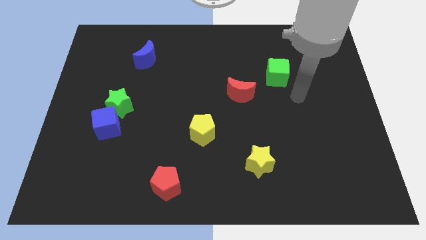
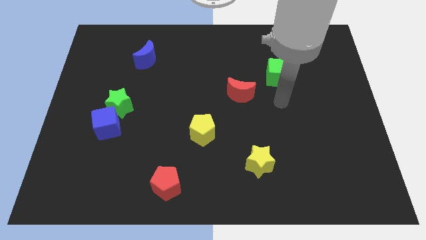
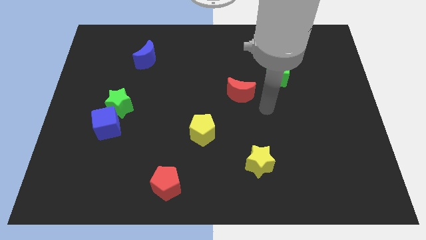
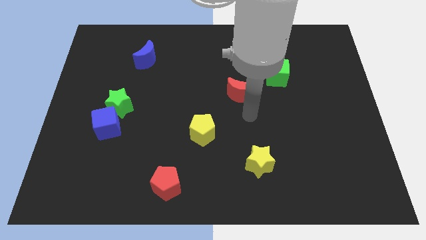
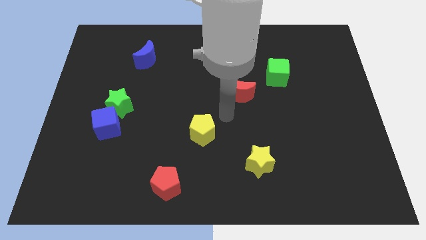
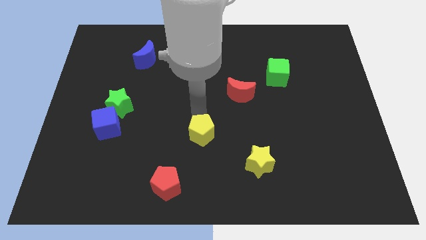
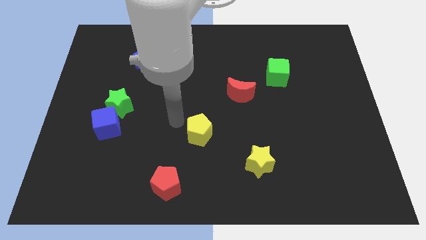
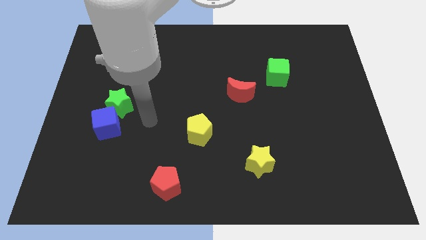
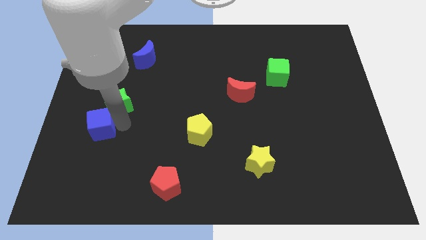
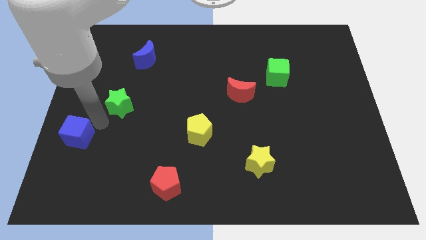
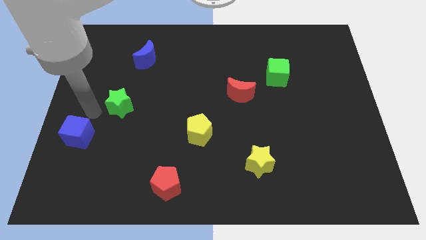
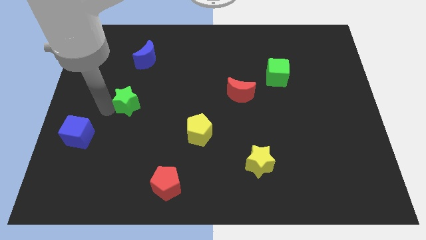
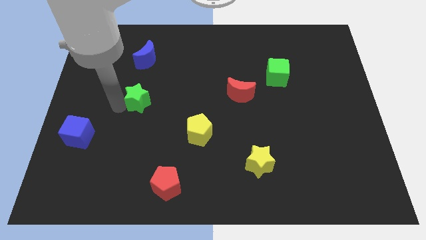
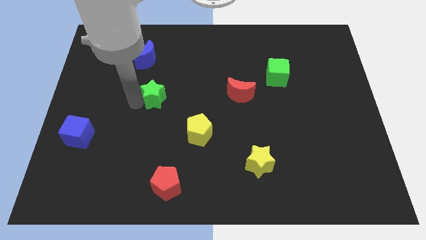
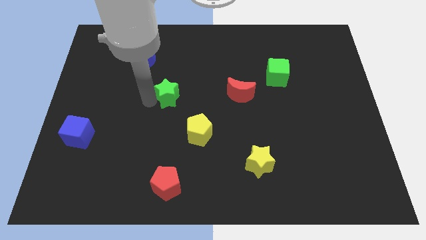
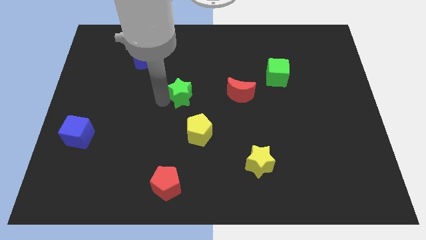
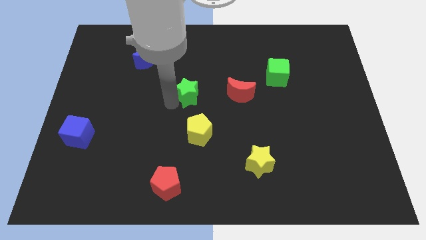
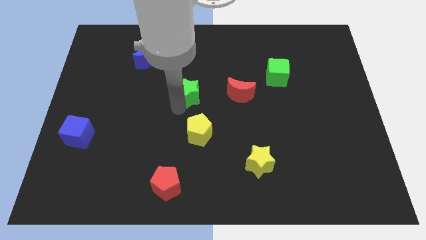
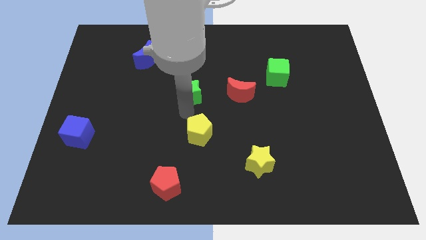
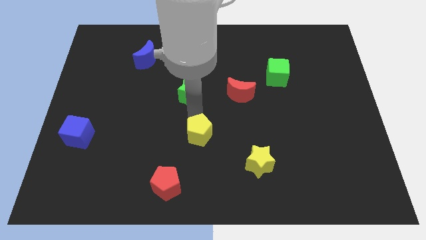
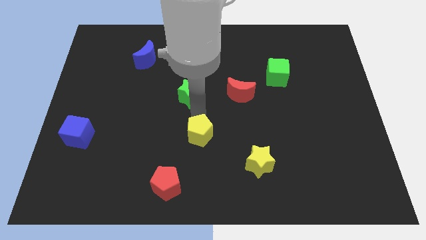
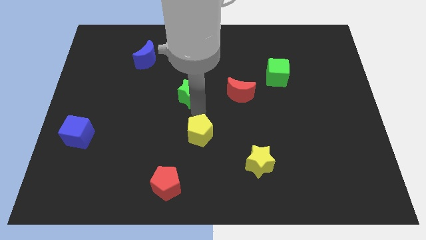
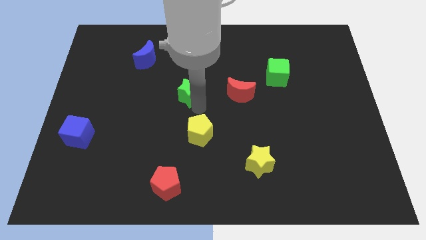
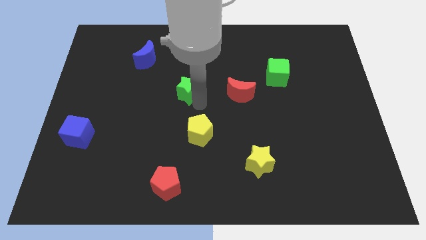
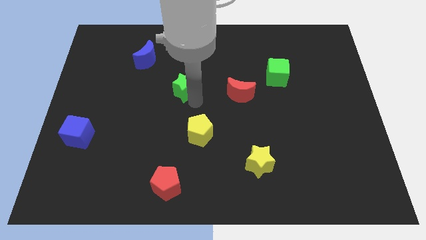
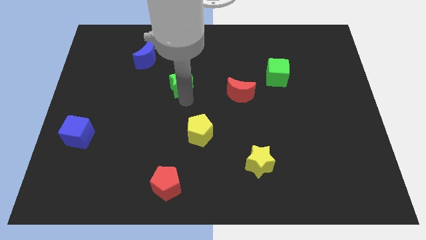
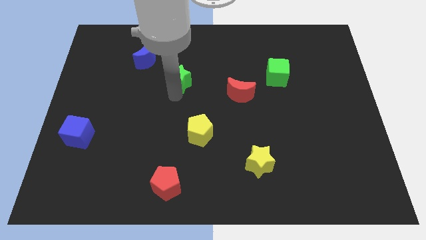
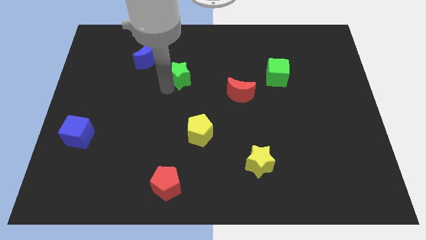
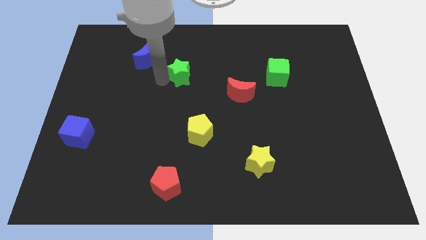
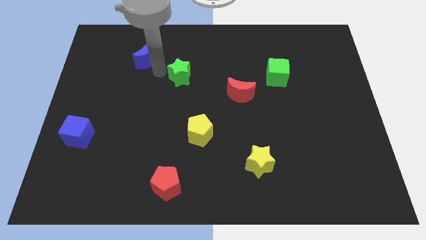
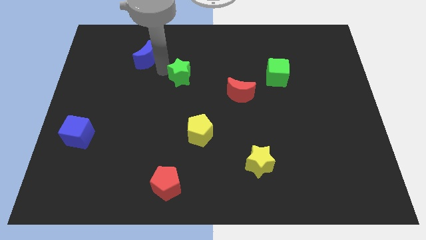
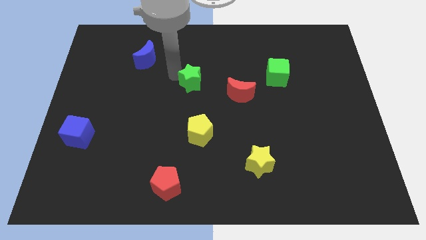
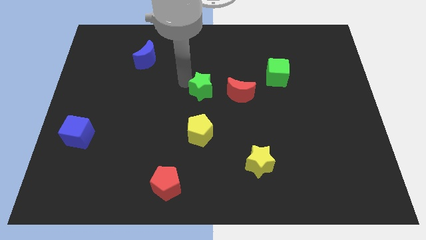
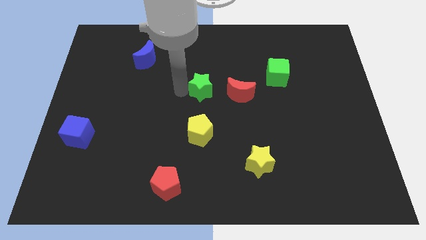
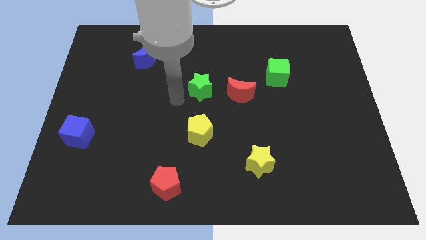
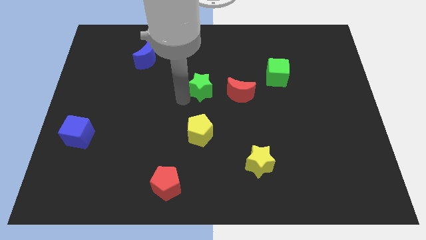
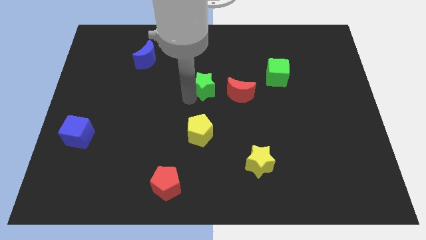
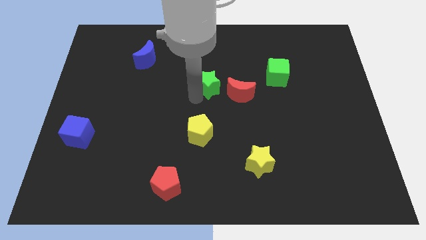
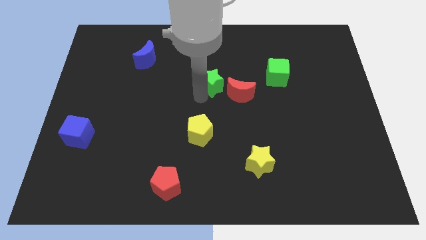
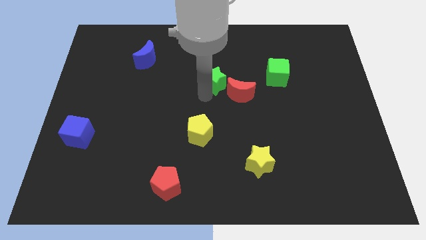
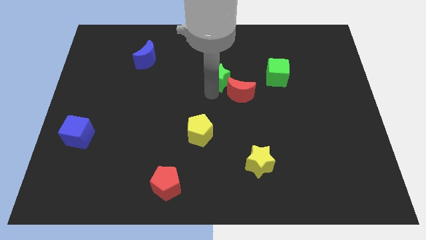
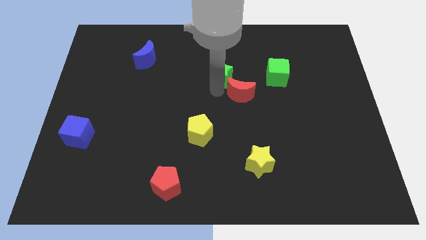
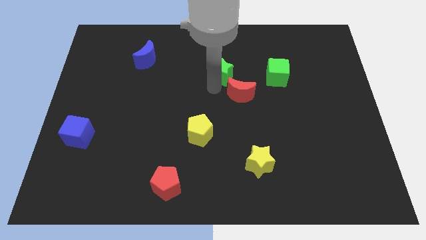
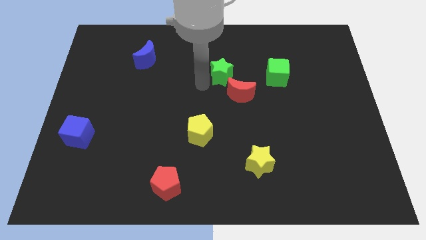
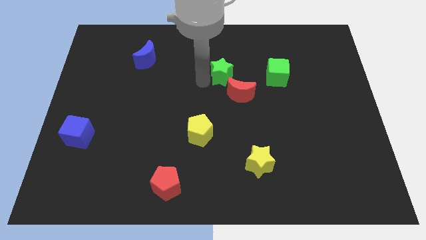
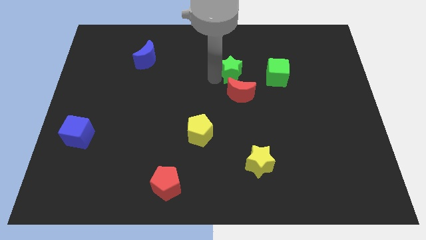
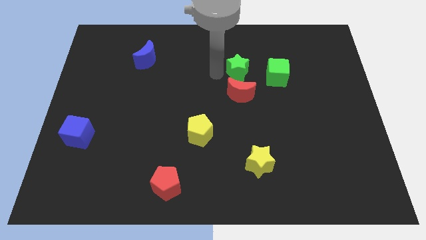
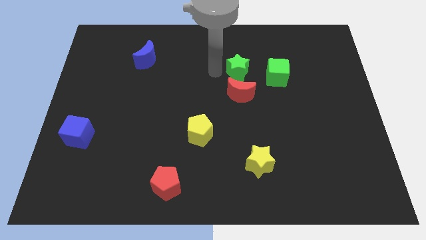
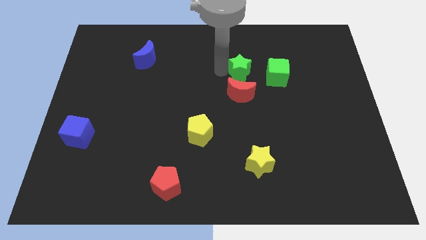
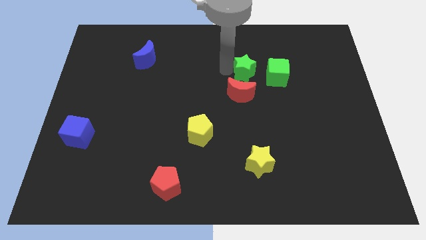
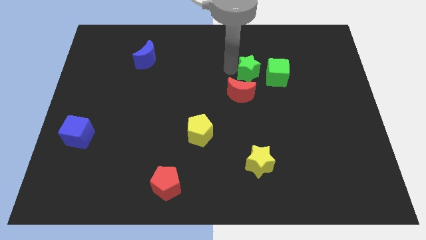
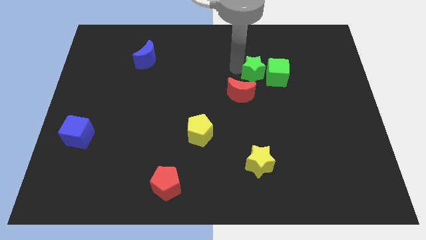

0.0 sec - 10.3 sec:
put the green star towards the green cube

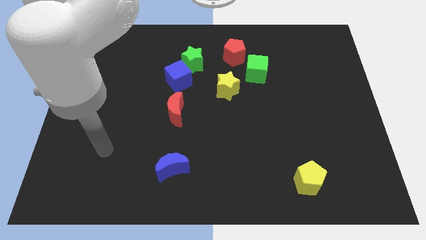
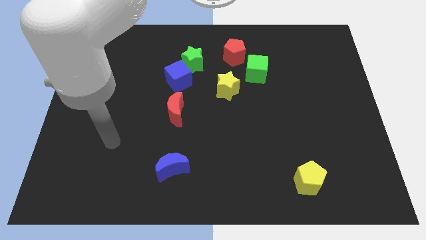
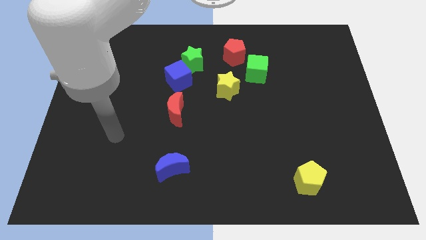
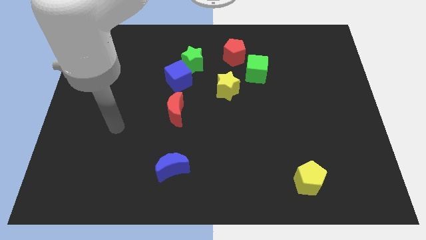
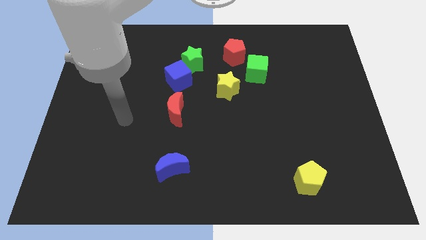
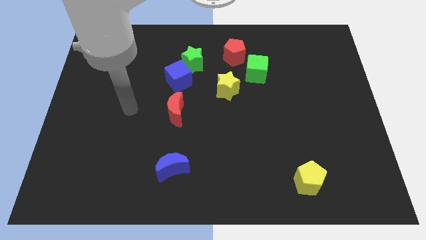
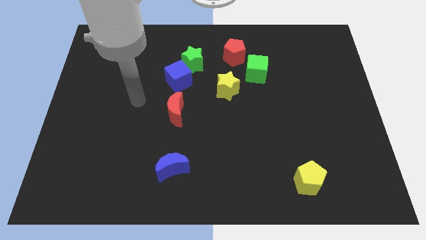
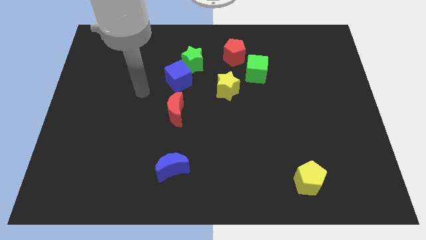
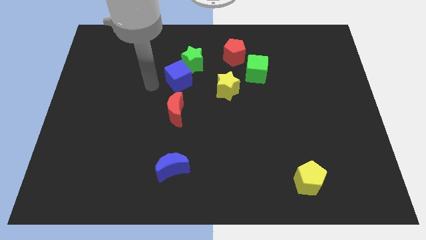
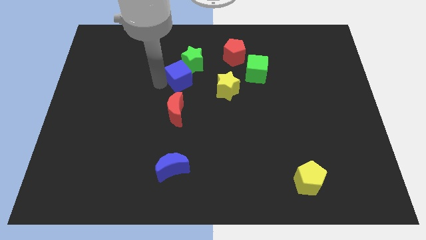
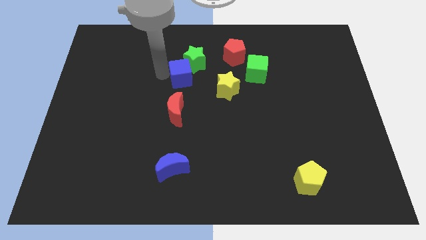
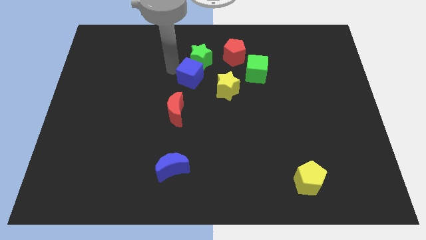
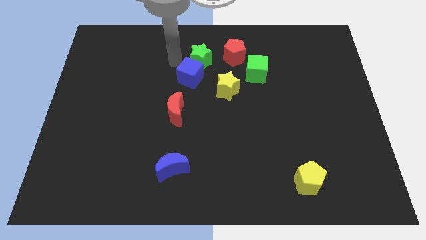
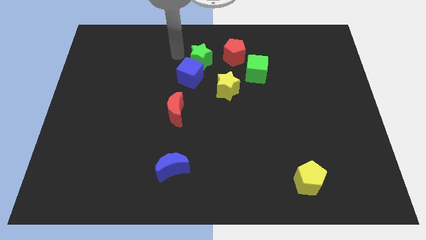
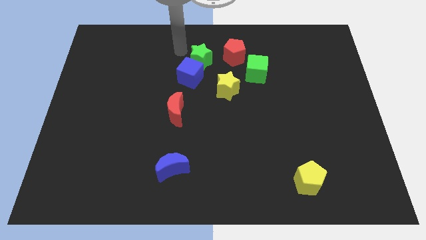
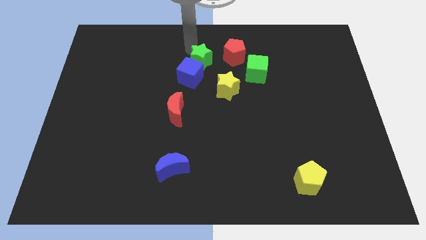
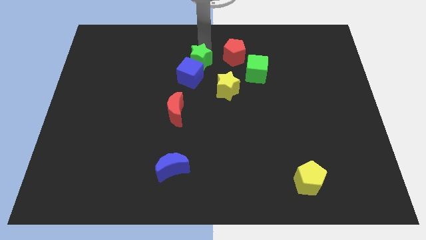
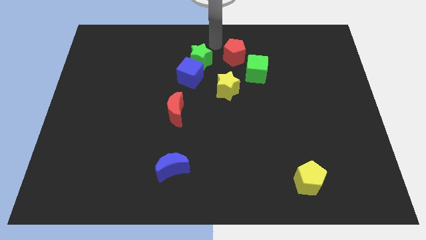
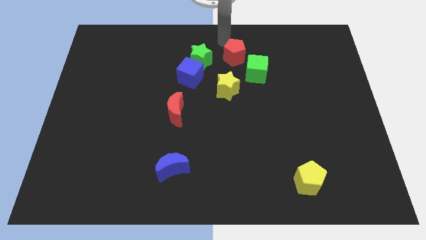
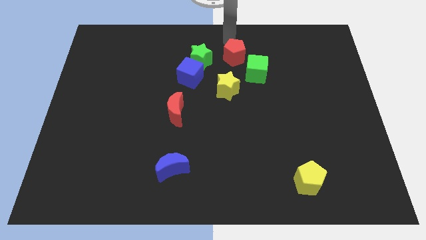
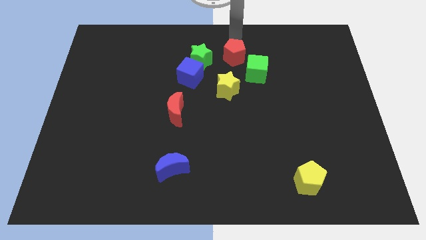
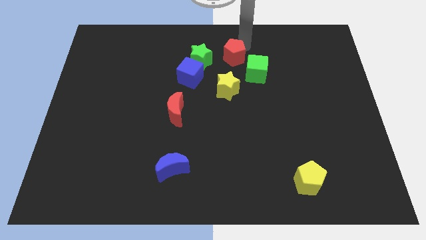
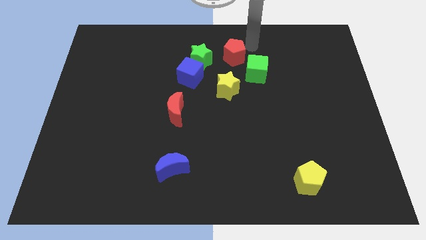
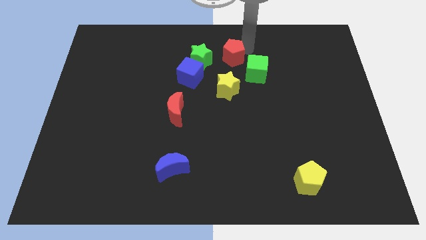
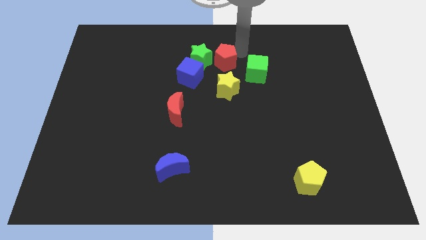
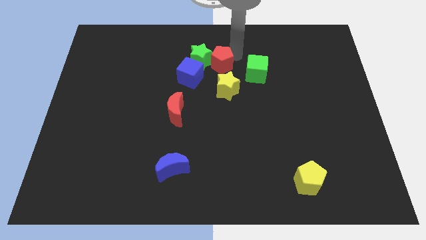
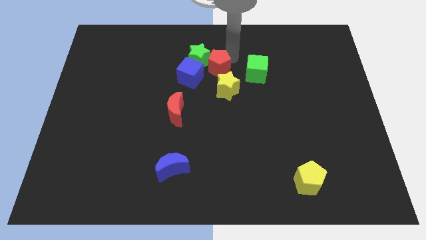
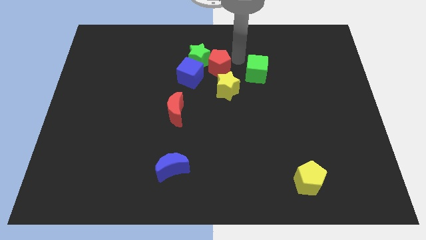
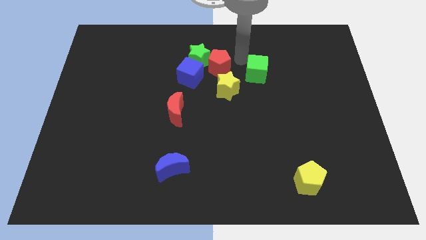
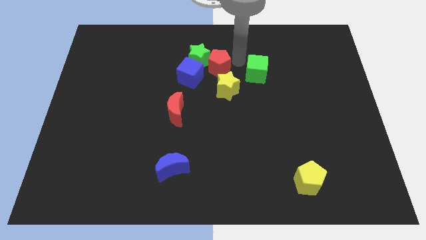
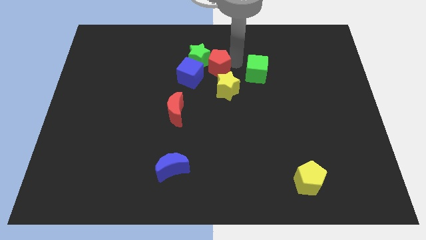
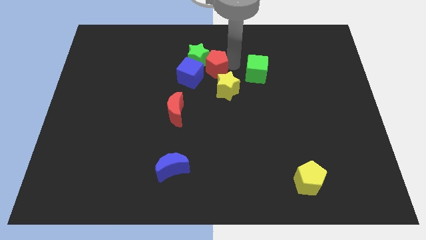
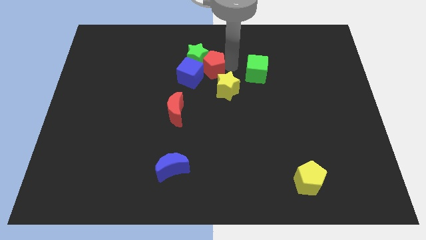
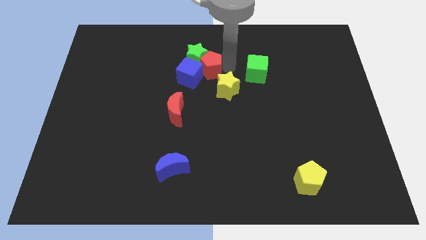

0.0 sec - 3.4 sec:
put the red pentagon towards the blue cube
